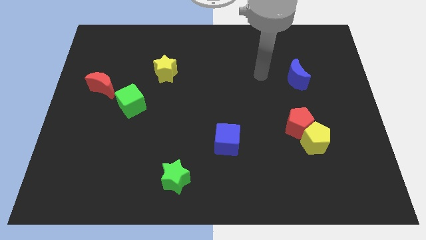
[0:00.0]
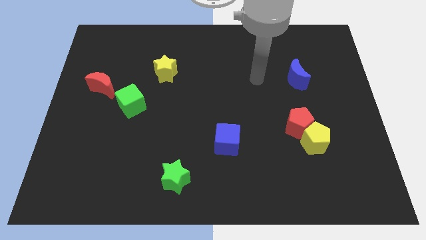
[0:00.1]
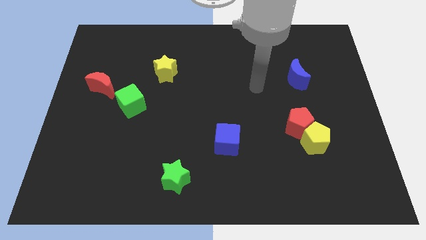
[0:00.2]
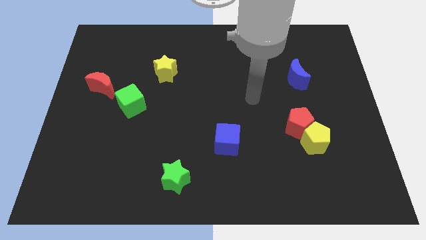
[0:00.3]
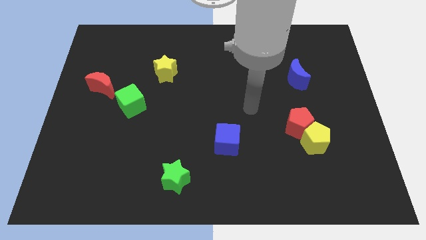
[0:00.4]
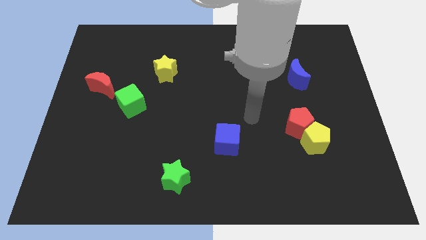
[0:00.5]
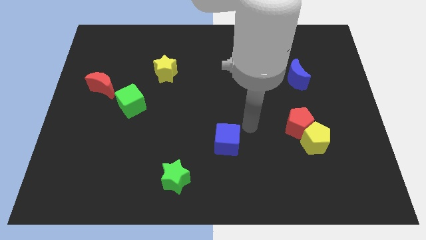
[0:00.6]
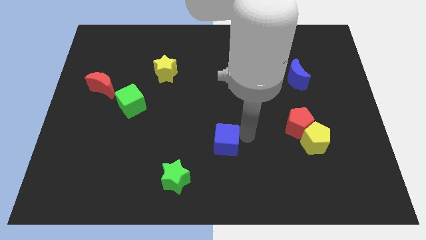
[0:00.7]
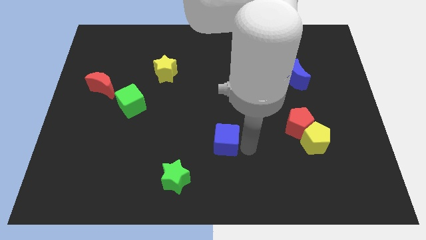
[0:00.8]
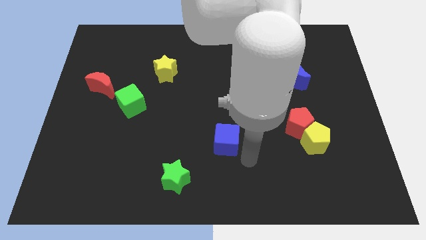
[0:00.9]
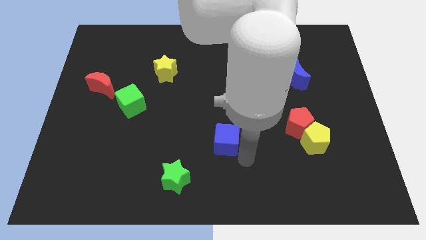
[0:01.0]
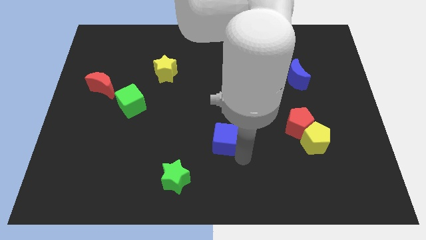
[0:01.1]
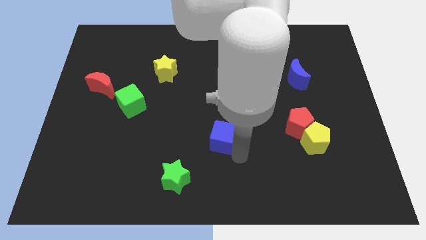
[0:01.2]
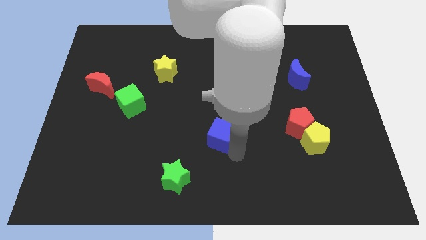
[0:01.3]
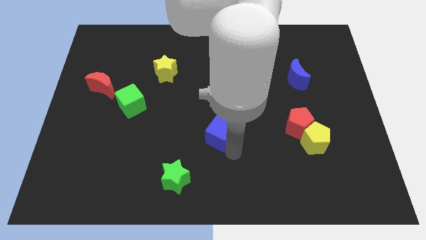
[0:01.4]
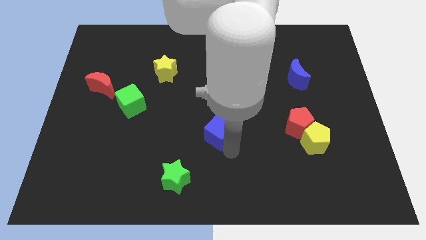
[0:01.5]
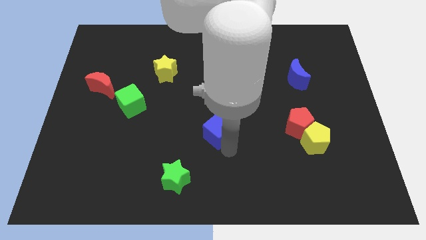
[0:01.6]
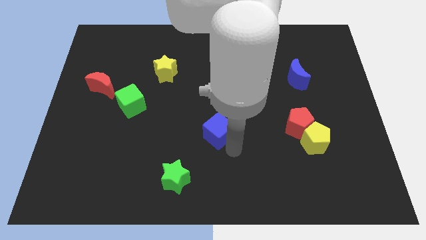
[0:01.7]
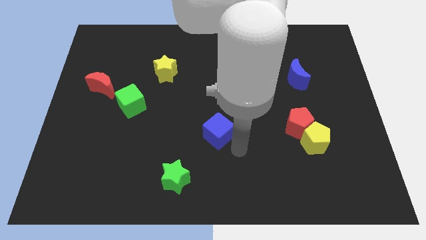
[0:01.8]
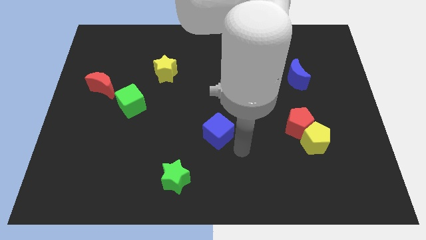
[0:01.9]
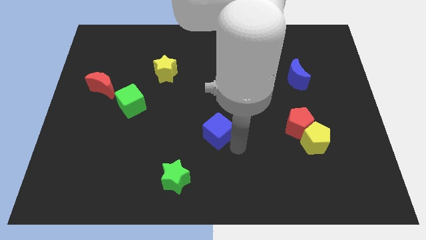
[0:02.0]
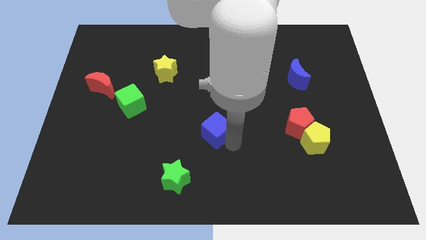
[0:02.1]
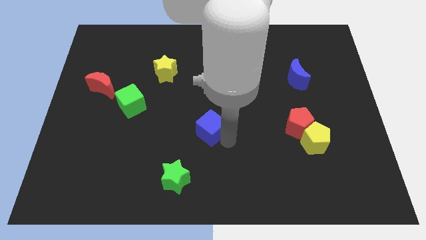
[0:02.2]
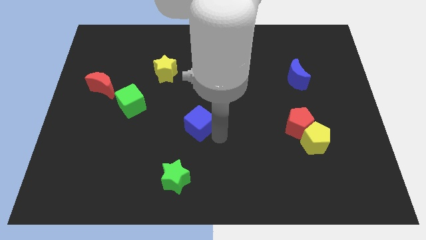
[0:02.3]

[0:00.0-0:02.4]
slide the blue cube a bit upwards and to the left diagonally

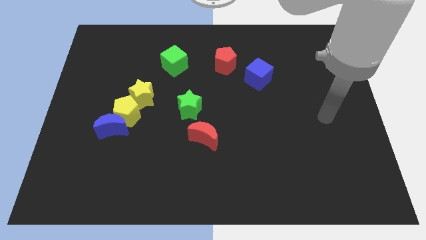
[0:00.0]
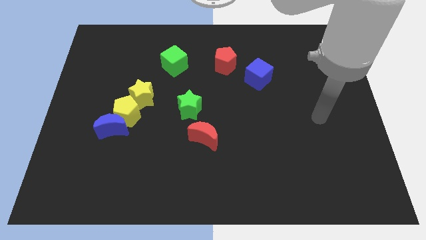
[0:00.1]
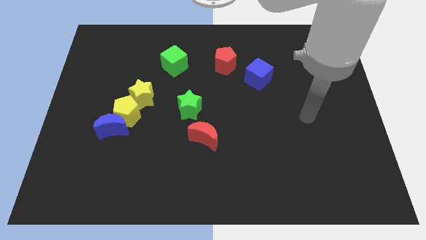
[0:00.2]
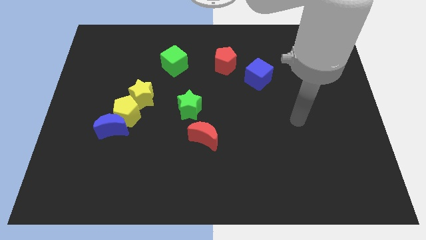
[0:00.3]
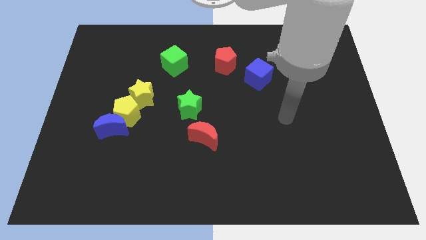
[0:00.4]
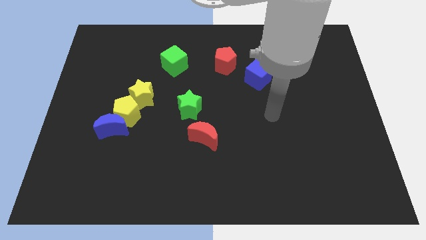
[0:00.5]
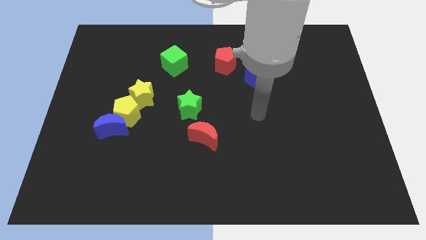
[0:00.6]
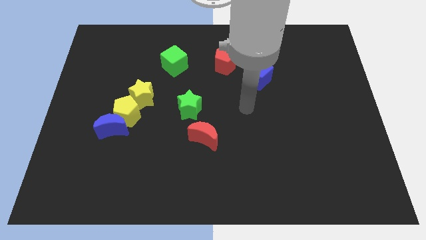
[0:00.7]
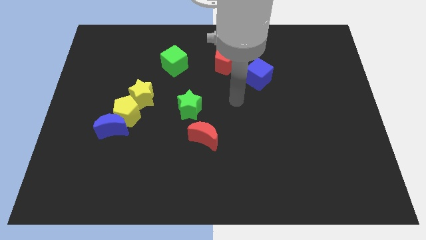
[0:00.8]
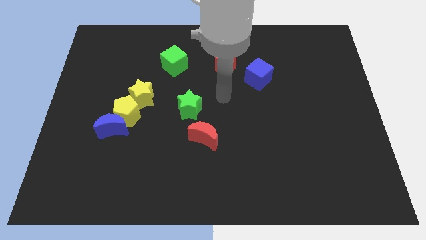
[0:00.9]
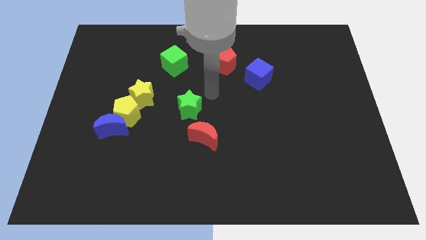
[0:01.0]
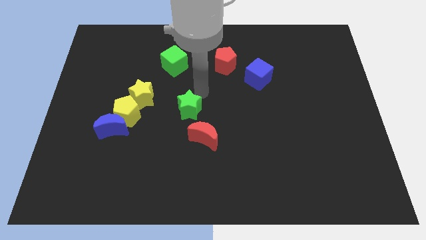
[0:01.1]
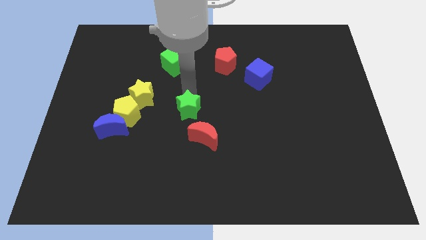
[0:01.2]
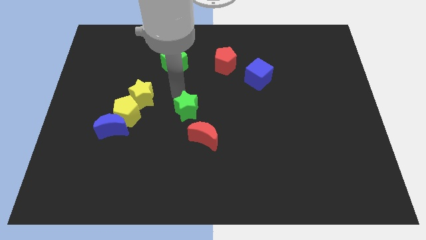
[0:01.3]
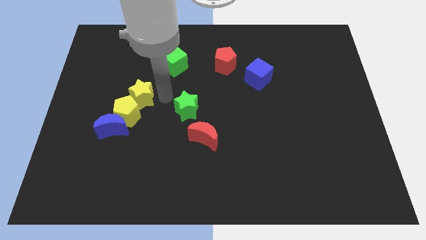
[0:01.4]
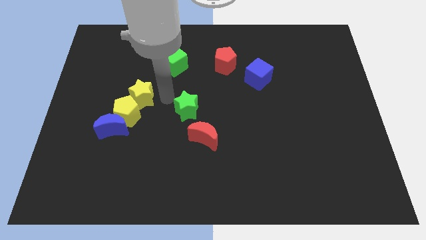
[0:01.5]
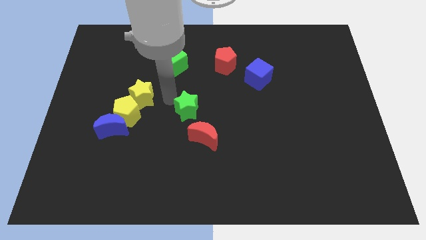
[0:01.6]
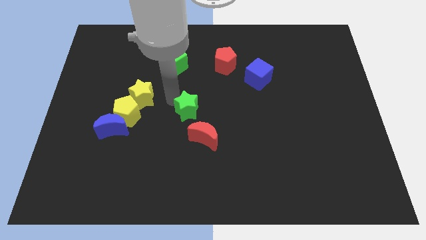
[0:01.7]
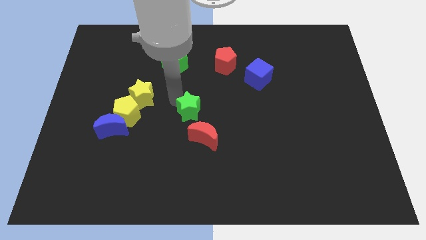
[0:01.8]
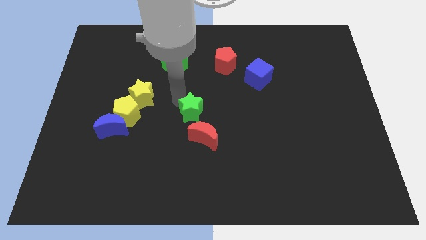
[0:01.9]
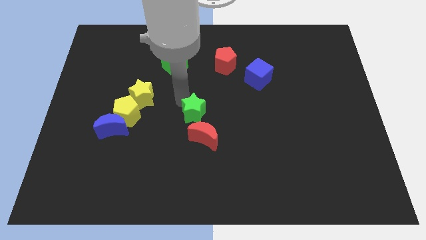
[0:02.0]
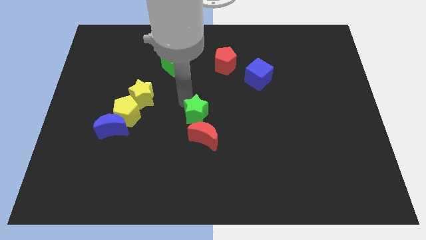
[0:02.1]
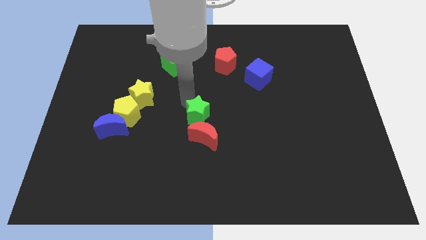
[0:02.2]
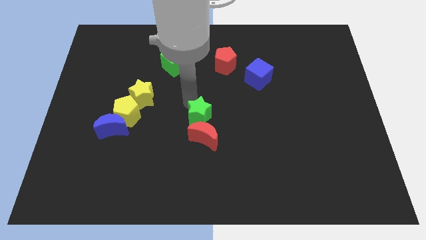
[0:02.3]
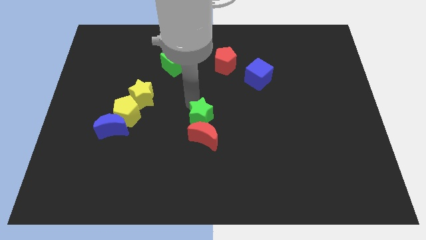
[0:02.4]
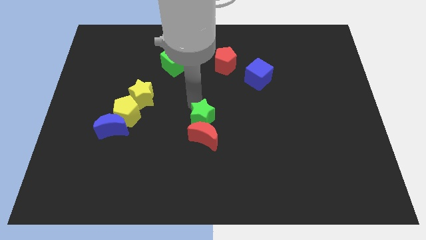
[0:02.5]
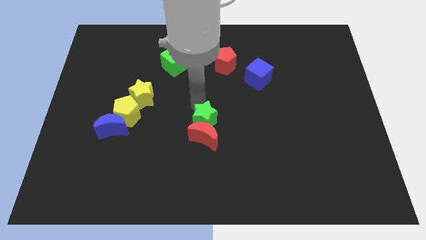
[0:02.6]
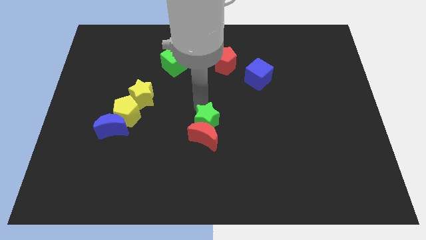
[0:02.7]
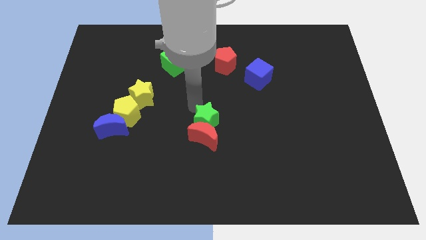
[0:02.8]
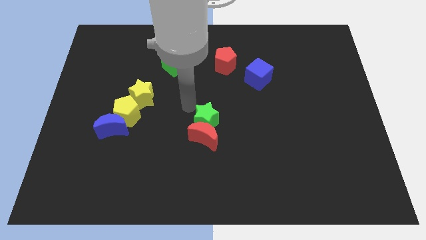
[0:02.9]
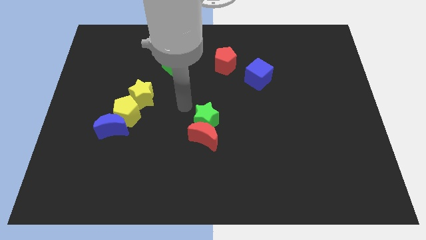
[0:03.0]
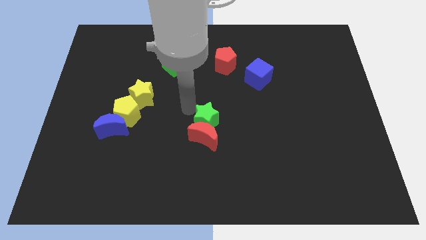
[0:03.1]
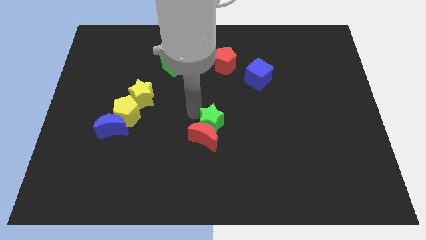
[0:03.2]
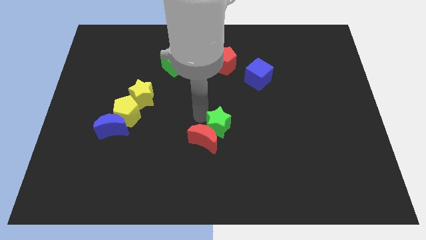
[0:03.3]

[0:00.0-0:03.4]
push the green star a bit diagonally down and to the right

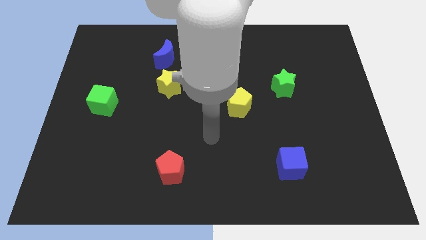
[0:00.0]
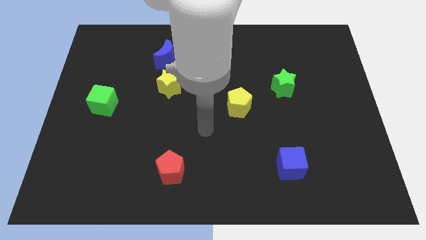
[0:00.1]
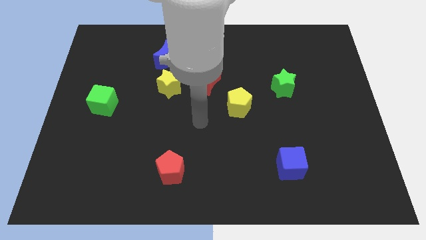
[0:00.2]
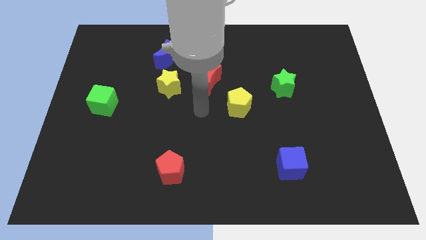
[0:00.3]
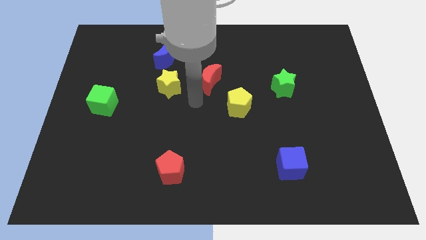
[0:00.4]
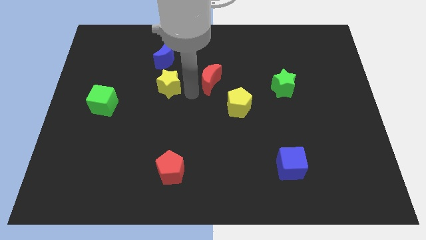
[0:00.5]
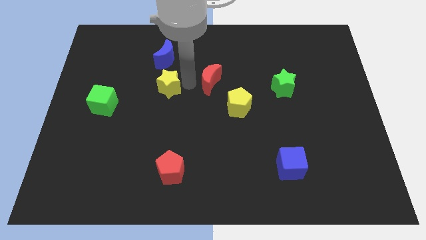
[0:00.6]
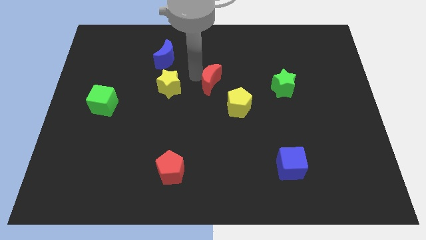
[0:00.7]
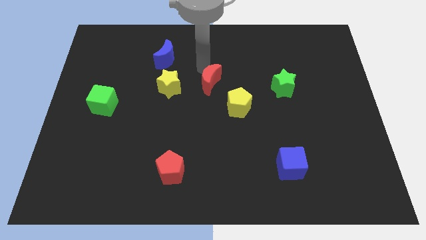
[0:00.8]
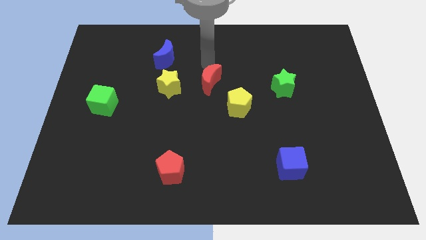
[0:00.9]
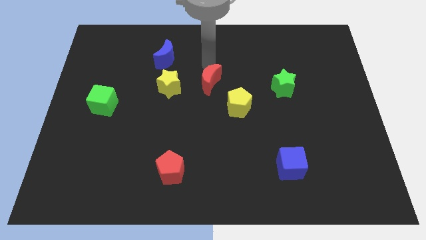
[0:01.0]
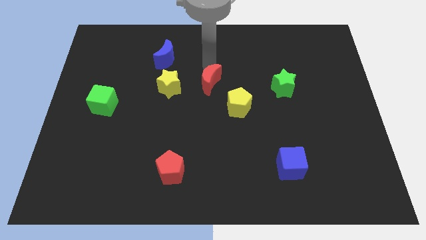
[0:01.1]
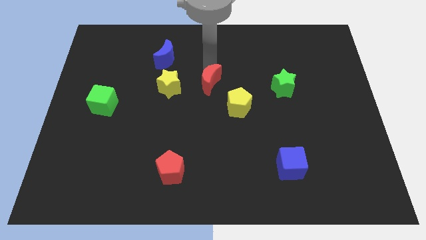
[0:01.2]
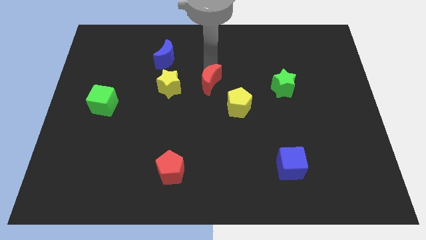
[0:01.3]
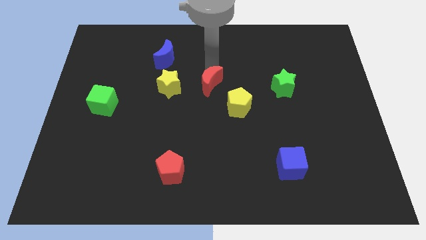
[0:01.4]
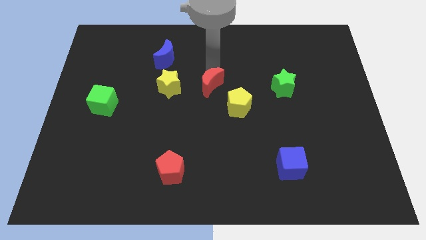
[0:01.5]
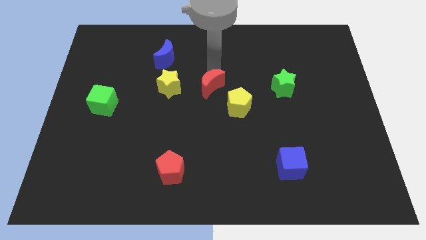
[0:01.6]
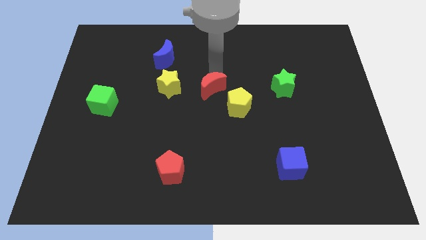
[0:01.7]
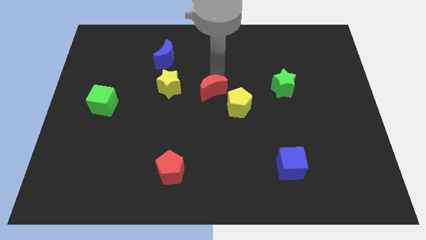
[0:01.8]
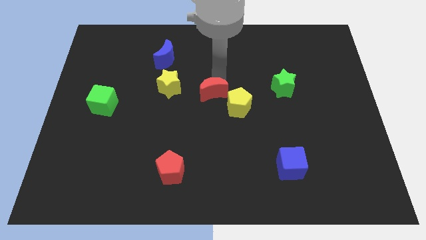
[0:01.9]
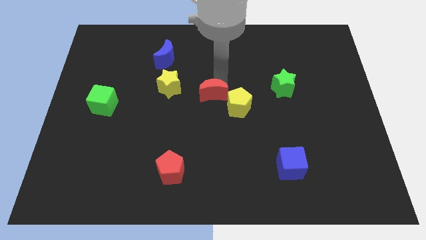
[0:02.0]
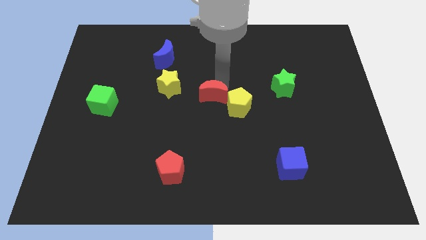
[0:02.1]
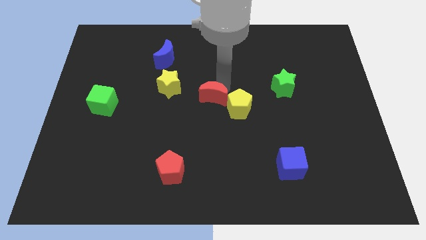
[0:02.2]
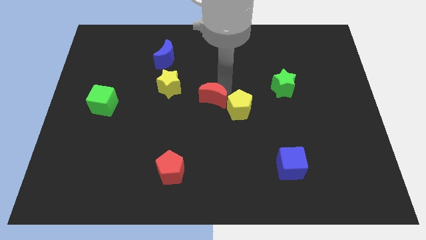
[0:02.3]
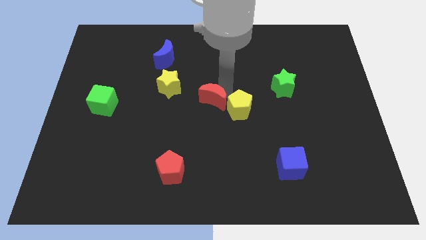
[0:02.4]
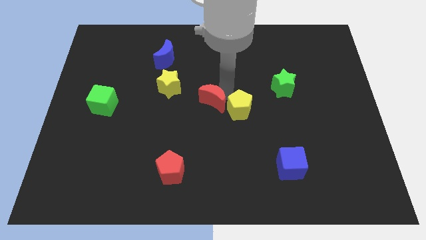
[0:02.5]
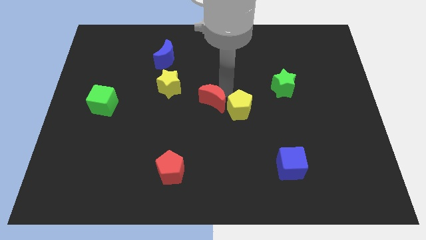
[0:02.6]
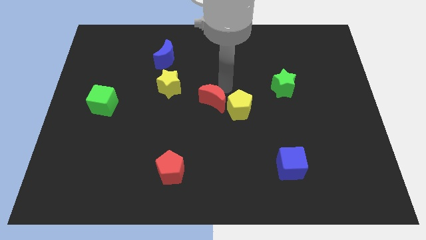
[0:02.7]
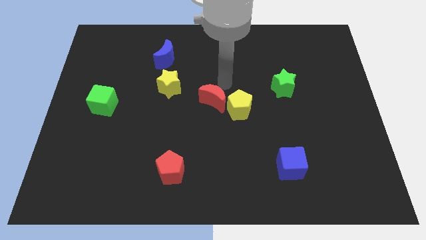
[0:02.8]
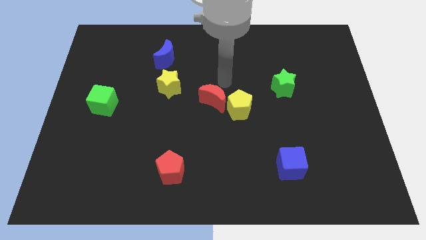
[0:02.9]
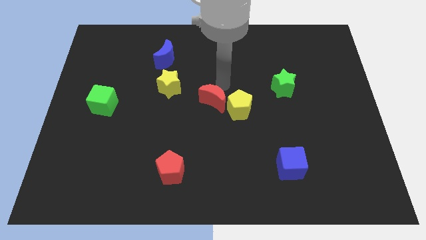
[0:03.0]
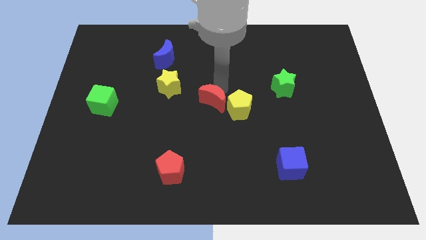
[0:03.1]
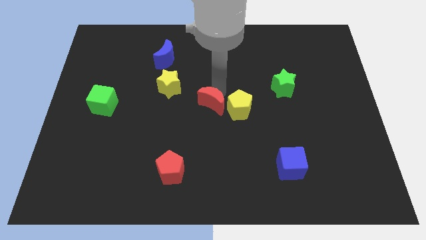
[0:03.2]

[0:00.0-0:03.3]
move the red moon a little downwards
